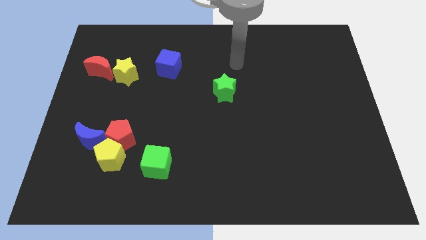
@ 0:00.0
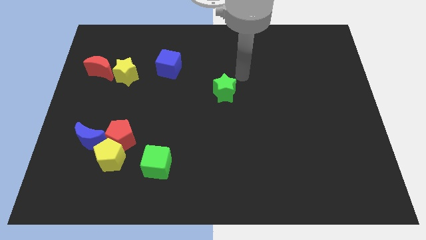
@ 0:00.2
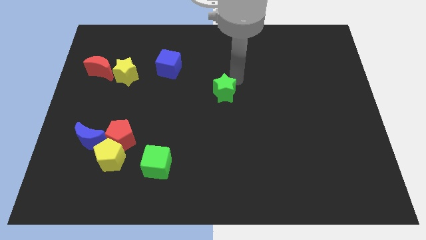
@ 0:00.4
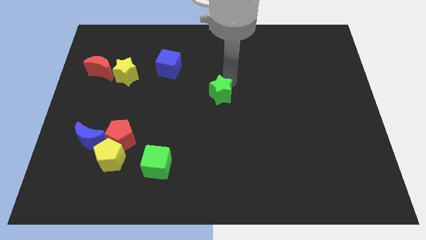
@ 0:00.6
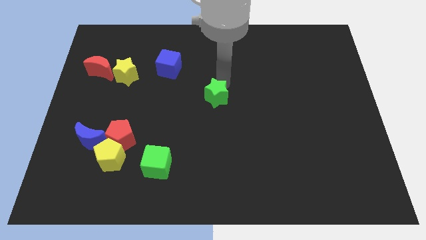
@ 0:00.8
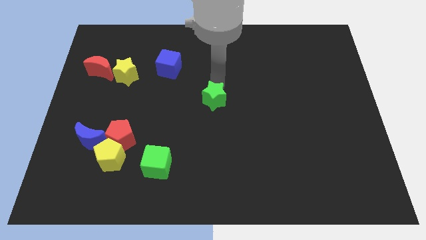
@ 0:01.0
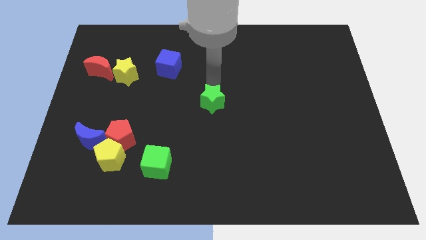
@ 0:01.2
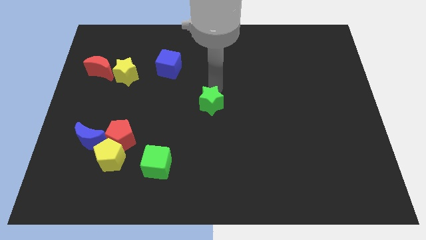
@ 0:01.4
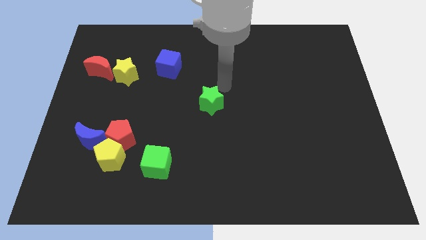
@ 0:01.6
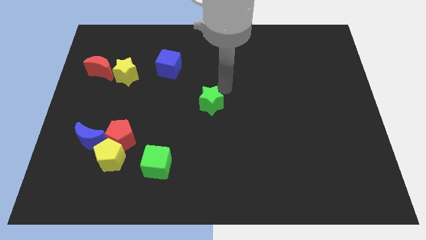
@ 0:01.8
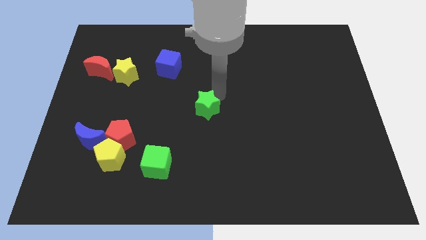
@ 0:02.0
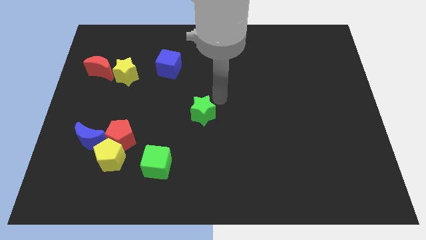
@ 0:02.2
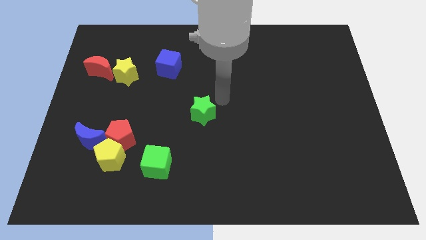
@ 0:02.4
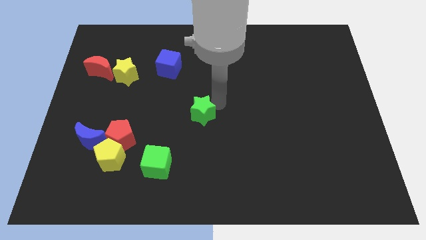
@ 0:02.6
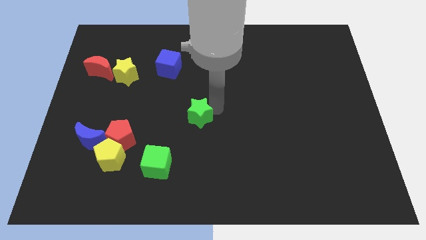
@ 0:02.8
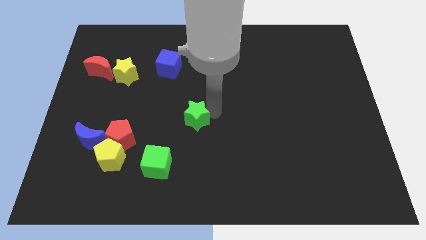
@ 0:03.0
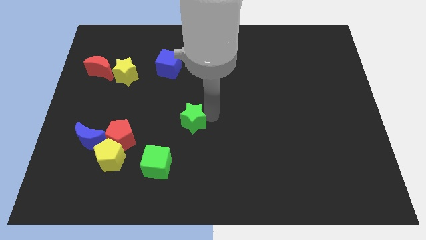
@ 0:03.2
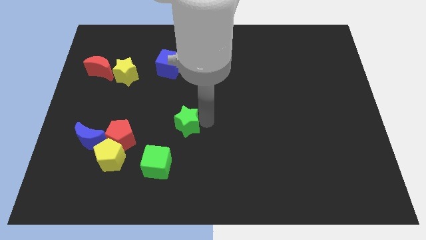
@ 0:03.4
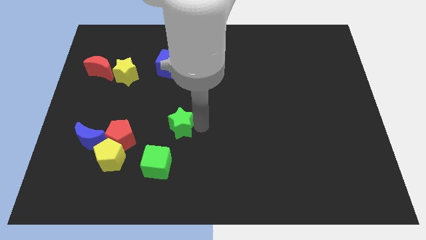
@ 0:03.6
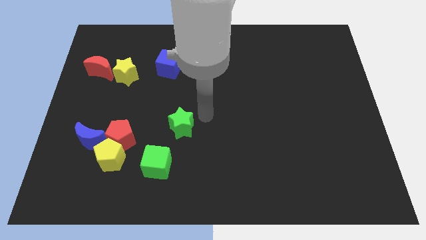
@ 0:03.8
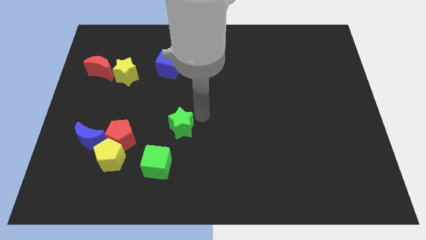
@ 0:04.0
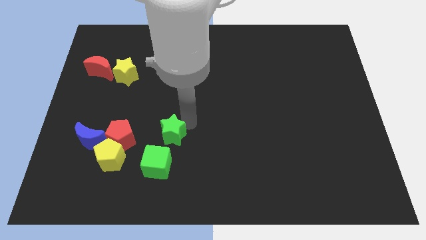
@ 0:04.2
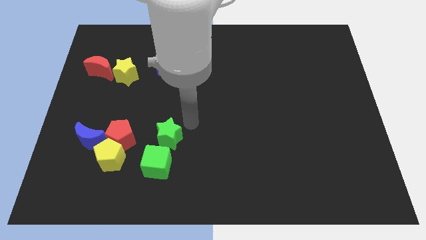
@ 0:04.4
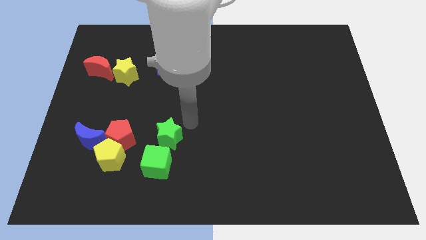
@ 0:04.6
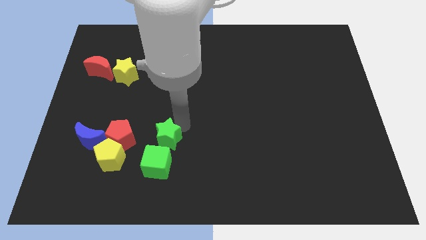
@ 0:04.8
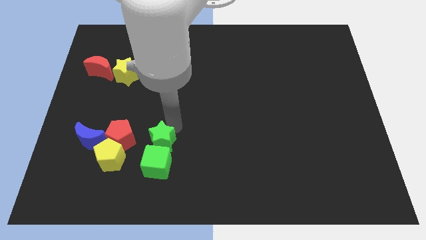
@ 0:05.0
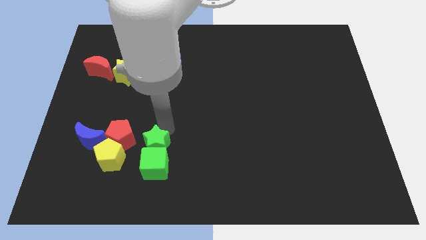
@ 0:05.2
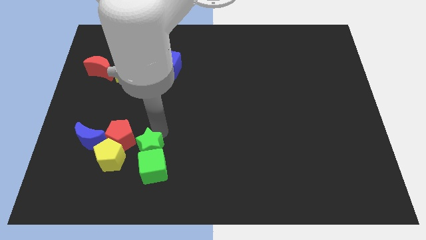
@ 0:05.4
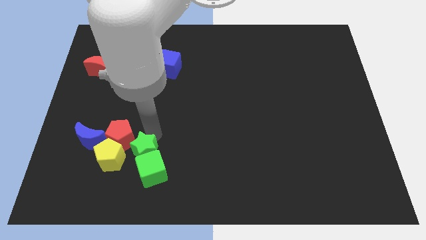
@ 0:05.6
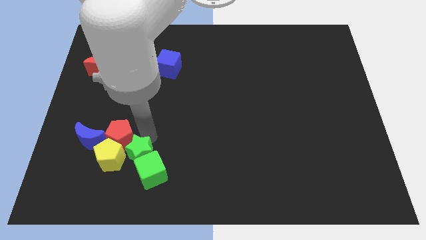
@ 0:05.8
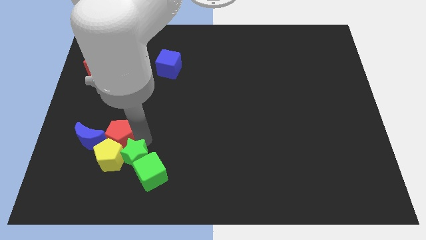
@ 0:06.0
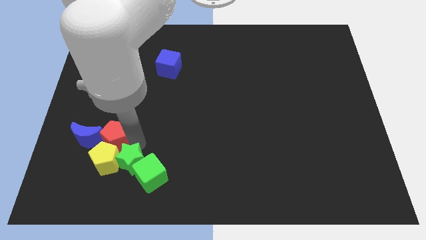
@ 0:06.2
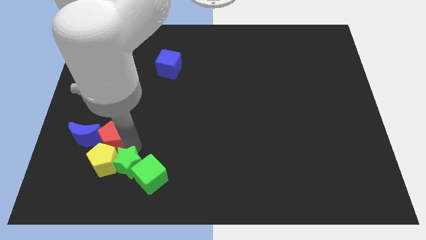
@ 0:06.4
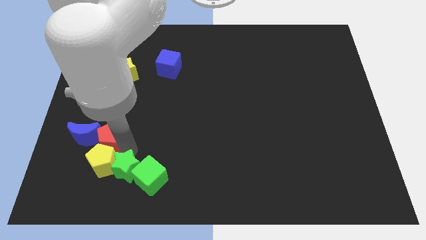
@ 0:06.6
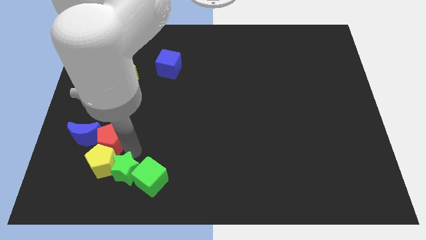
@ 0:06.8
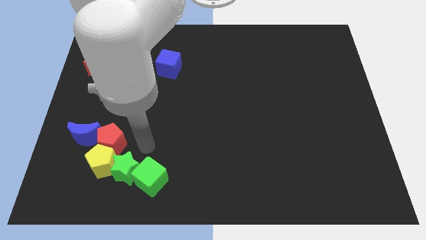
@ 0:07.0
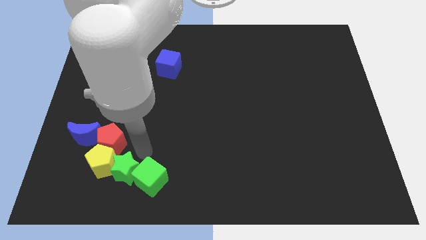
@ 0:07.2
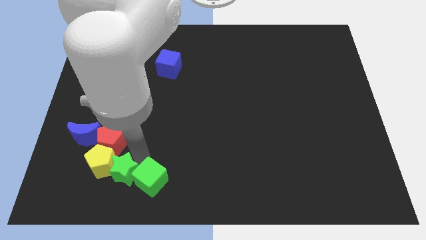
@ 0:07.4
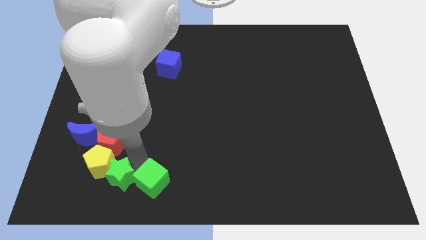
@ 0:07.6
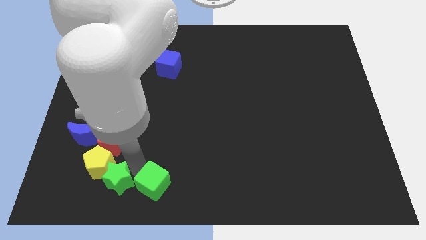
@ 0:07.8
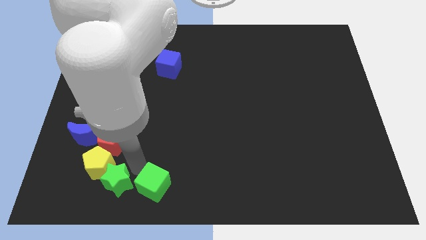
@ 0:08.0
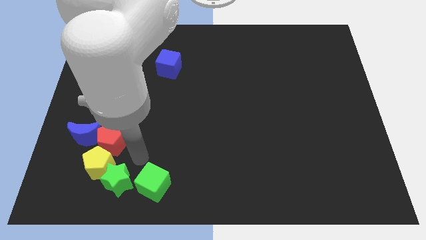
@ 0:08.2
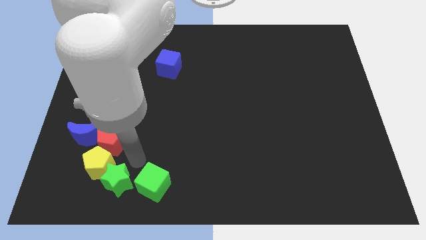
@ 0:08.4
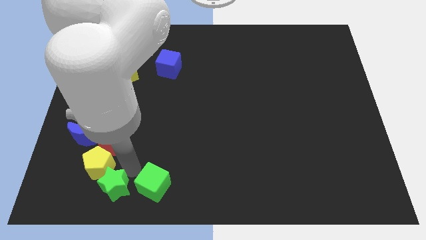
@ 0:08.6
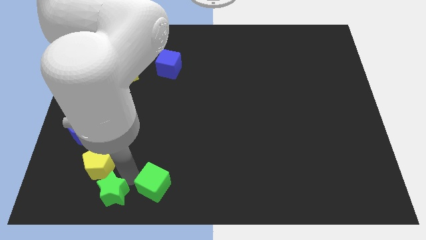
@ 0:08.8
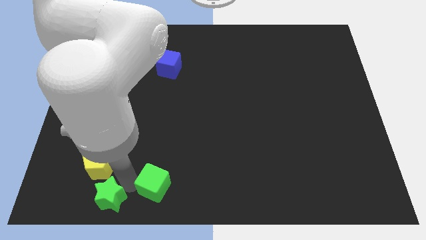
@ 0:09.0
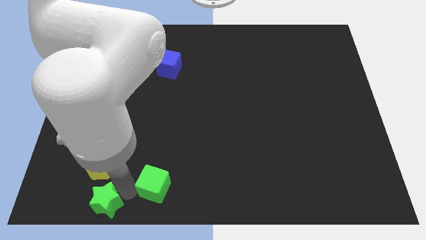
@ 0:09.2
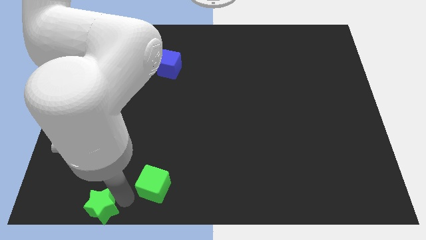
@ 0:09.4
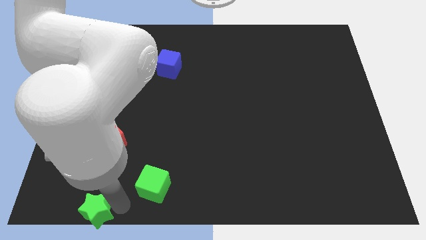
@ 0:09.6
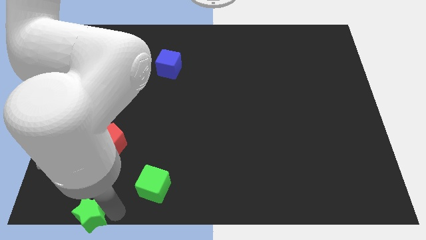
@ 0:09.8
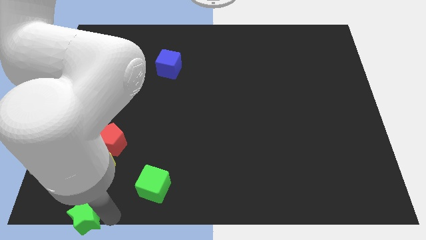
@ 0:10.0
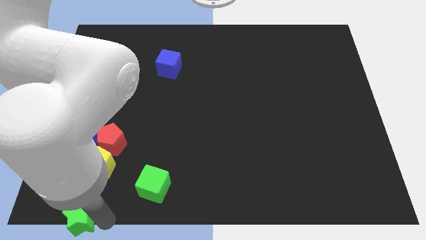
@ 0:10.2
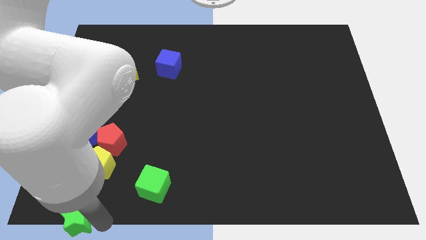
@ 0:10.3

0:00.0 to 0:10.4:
push the green star to the bottom left of the board
